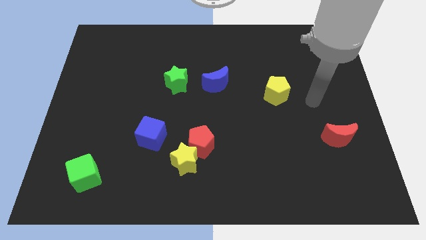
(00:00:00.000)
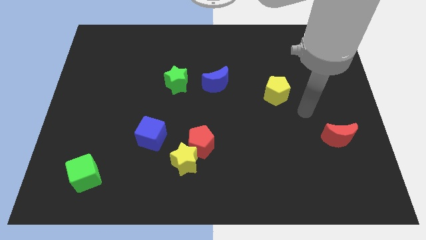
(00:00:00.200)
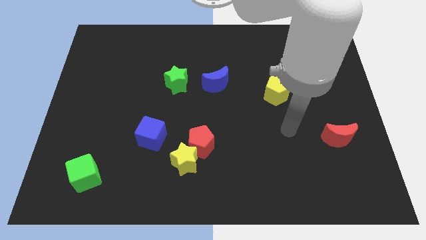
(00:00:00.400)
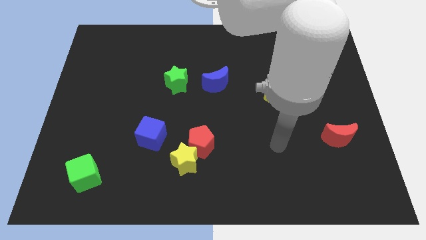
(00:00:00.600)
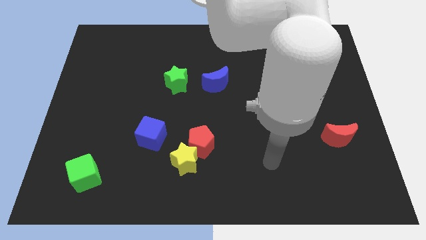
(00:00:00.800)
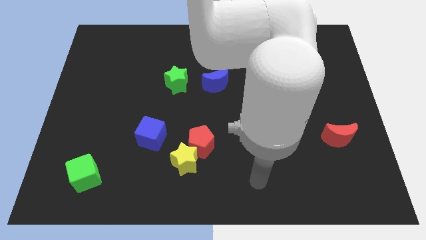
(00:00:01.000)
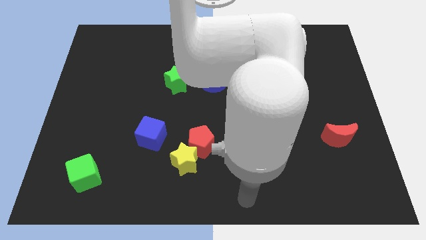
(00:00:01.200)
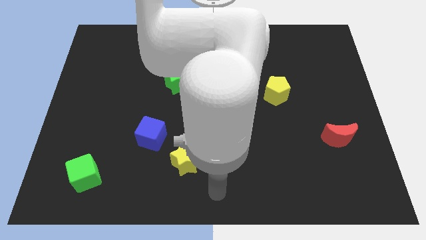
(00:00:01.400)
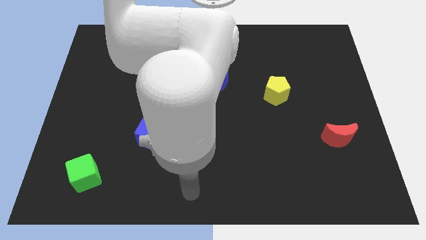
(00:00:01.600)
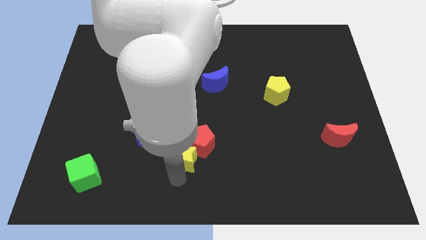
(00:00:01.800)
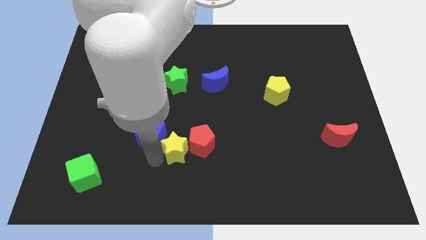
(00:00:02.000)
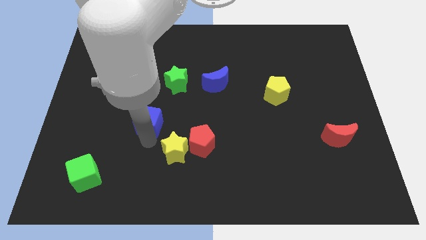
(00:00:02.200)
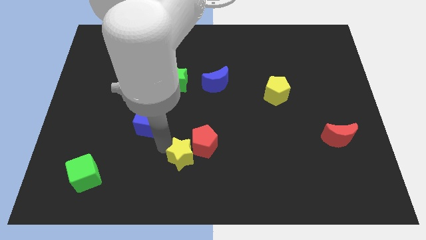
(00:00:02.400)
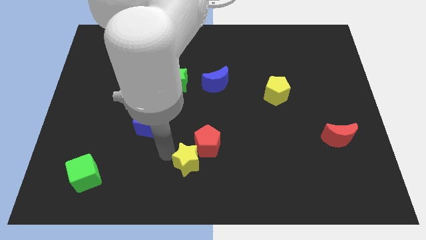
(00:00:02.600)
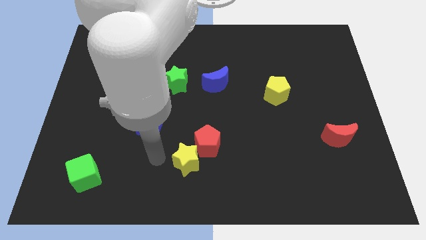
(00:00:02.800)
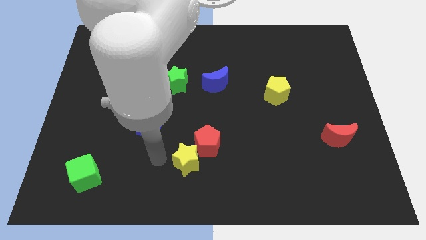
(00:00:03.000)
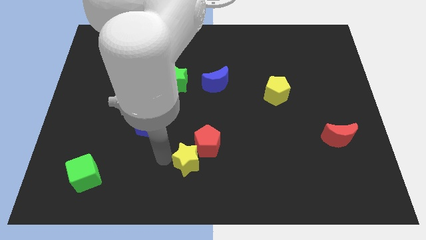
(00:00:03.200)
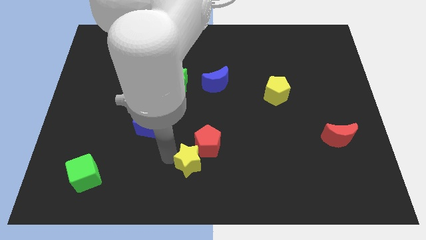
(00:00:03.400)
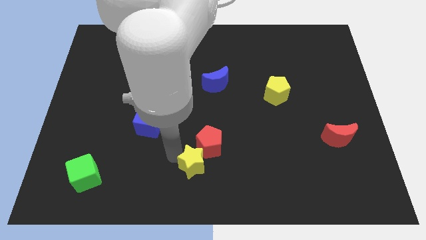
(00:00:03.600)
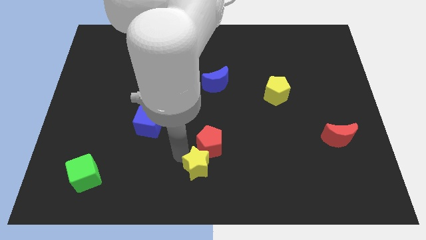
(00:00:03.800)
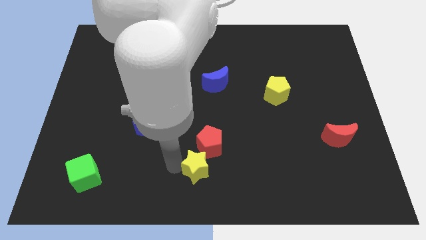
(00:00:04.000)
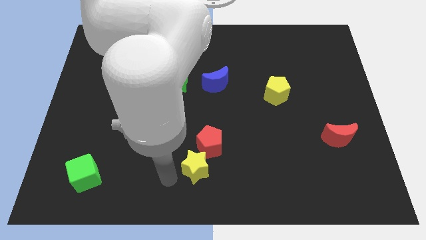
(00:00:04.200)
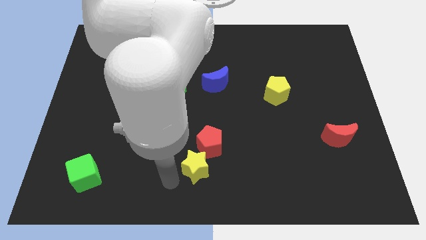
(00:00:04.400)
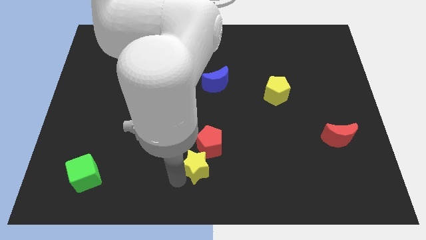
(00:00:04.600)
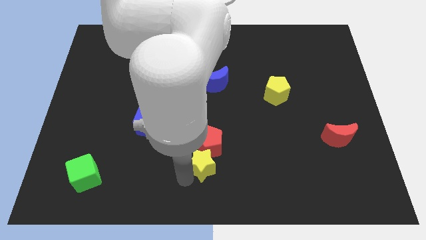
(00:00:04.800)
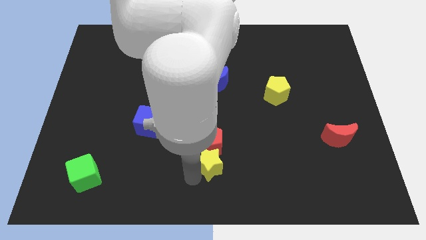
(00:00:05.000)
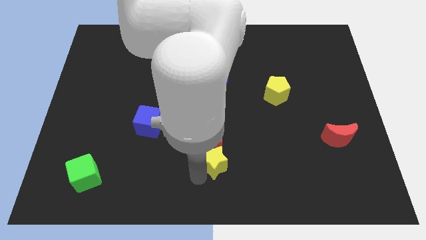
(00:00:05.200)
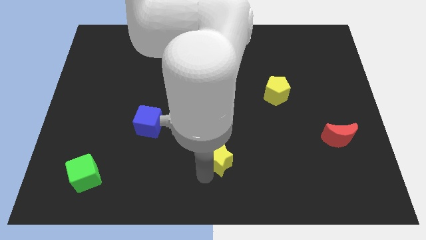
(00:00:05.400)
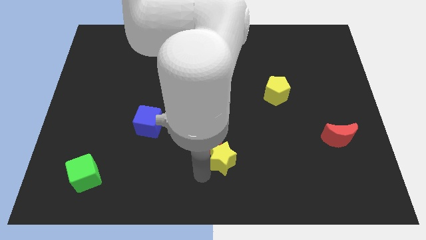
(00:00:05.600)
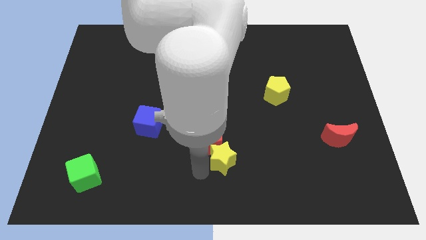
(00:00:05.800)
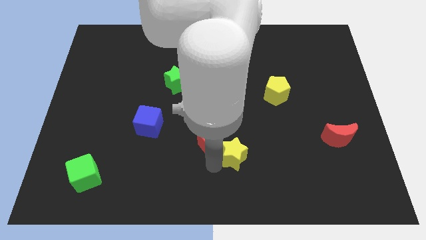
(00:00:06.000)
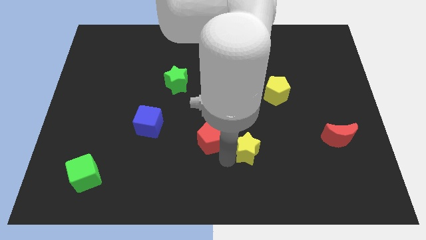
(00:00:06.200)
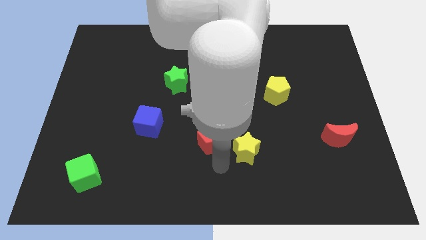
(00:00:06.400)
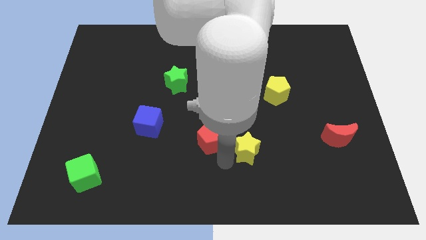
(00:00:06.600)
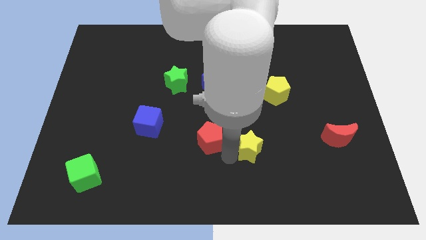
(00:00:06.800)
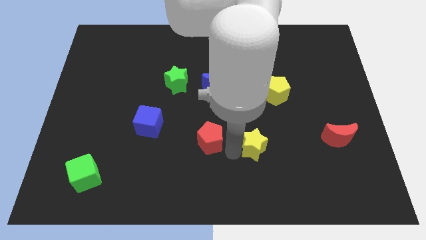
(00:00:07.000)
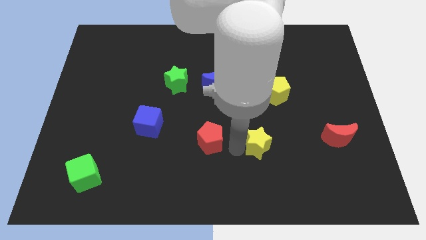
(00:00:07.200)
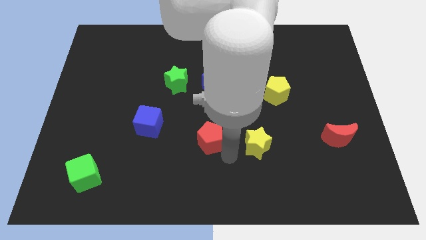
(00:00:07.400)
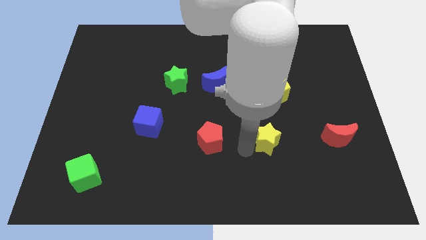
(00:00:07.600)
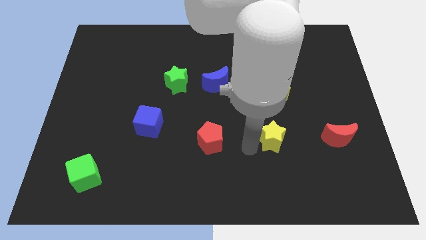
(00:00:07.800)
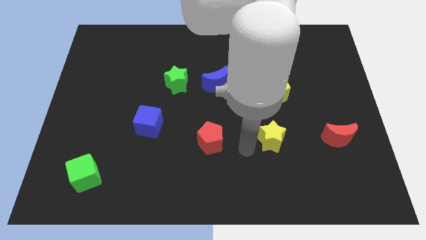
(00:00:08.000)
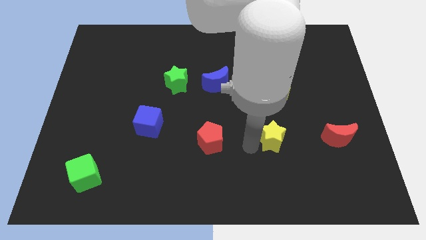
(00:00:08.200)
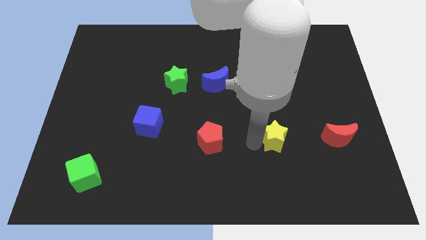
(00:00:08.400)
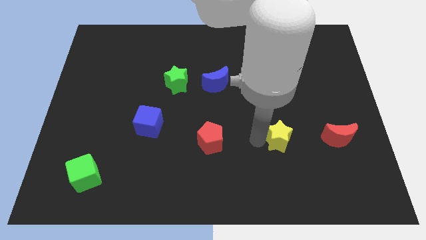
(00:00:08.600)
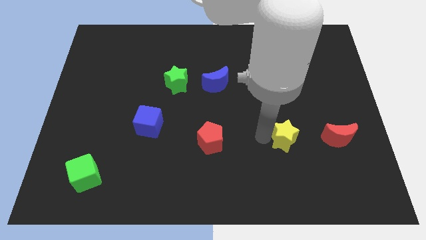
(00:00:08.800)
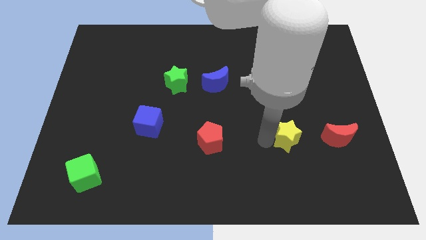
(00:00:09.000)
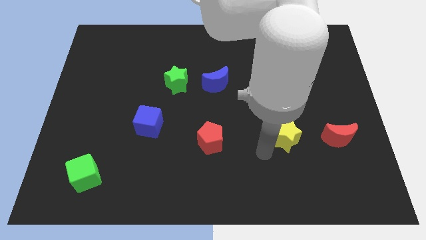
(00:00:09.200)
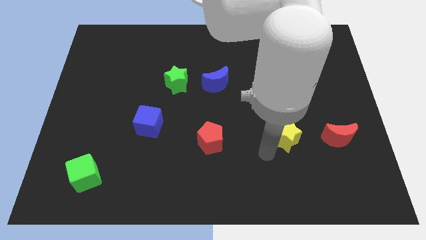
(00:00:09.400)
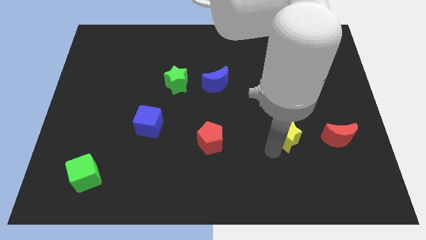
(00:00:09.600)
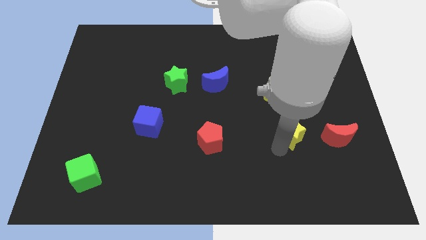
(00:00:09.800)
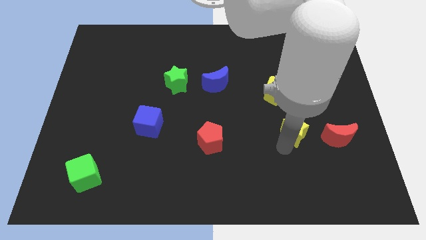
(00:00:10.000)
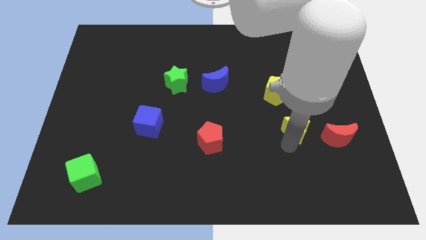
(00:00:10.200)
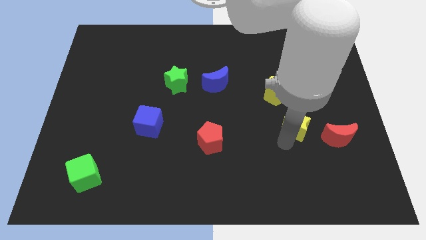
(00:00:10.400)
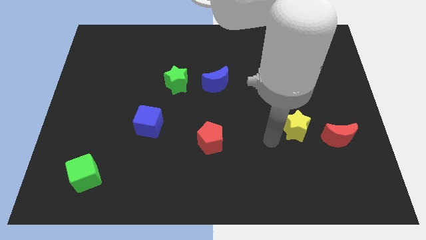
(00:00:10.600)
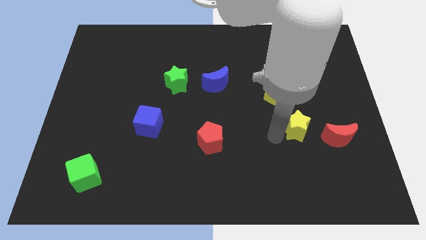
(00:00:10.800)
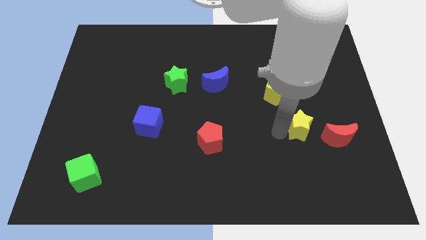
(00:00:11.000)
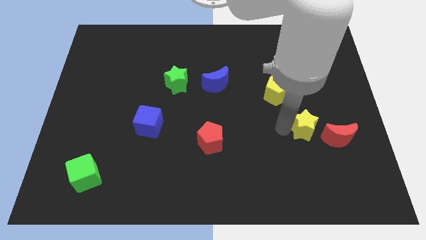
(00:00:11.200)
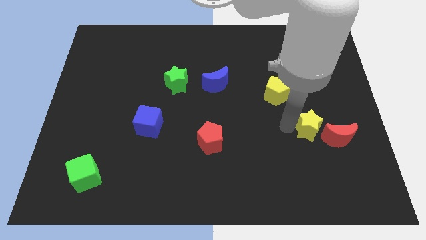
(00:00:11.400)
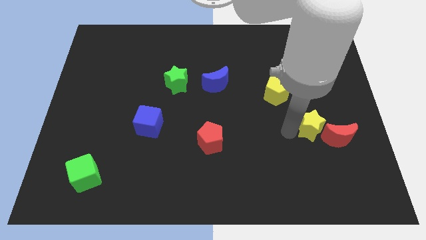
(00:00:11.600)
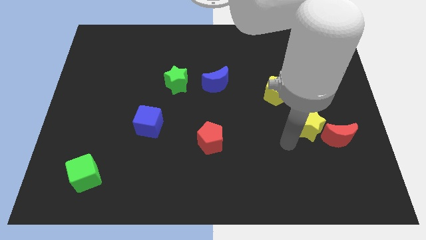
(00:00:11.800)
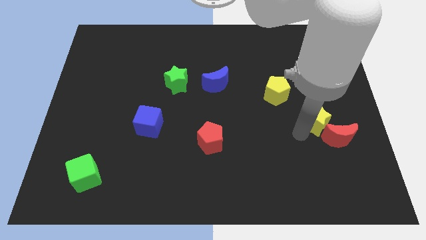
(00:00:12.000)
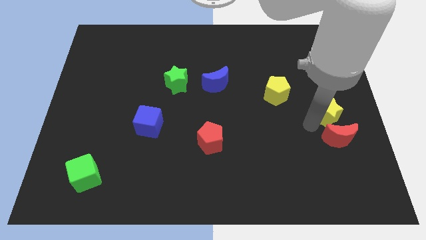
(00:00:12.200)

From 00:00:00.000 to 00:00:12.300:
move the yellow star to the center right

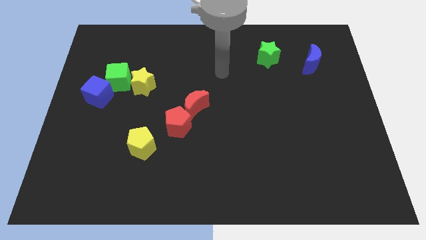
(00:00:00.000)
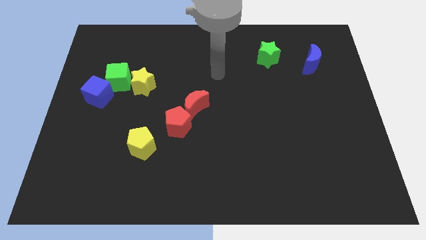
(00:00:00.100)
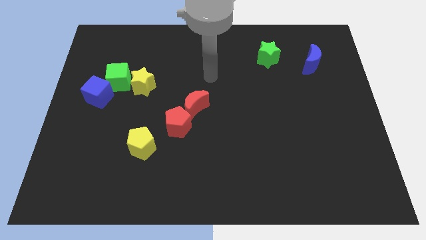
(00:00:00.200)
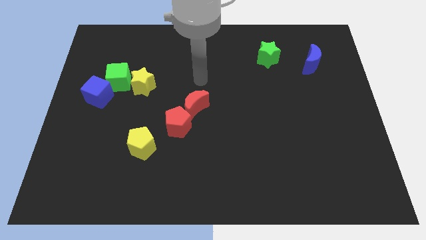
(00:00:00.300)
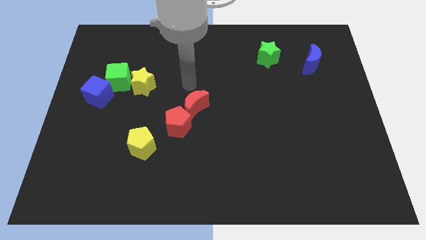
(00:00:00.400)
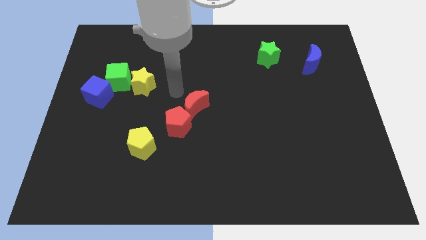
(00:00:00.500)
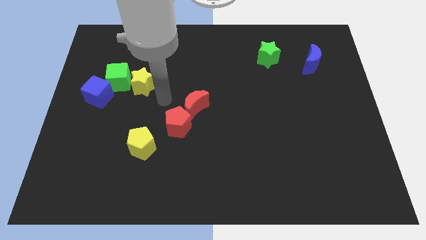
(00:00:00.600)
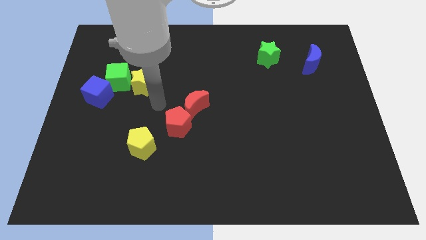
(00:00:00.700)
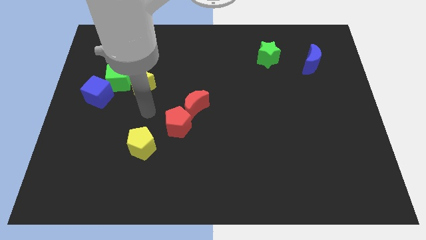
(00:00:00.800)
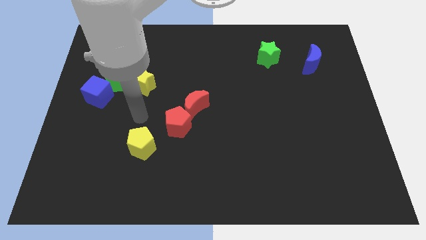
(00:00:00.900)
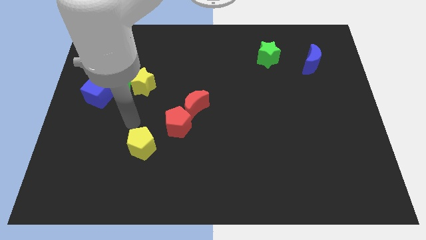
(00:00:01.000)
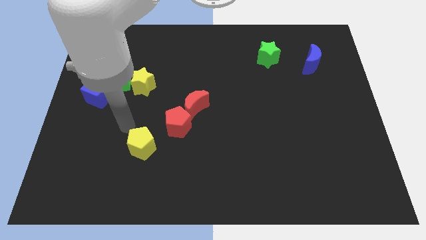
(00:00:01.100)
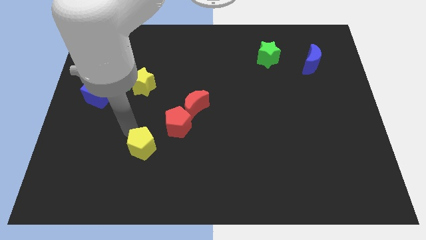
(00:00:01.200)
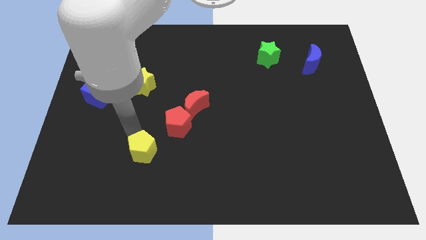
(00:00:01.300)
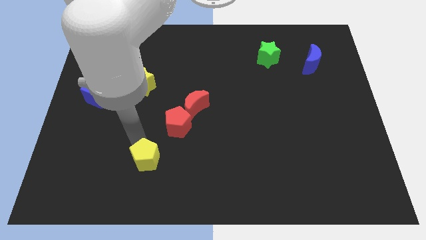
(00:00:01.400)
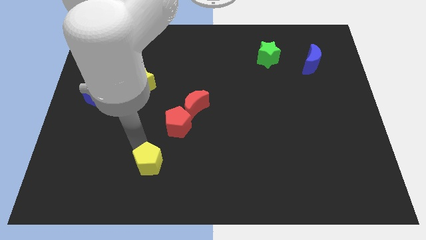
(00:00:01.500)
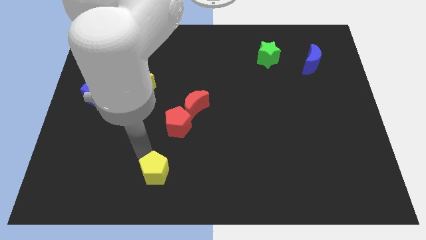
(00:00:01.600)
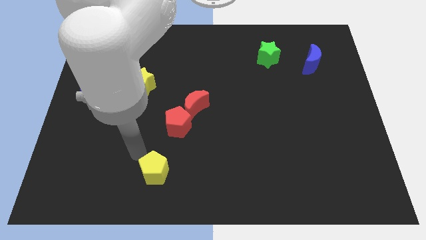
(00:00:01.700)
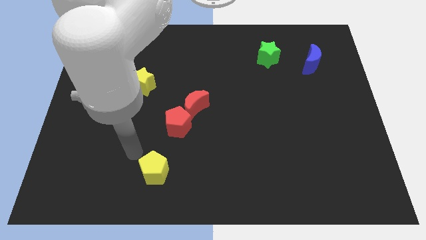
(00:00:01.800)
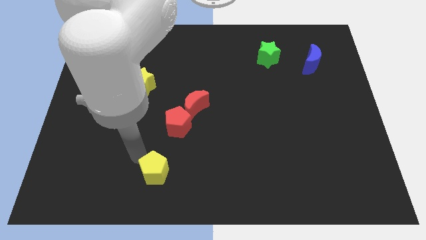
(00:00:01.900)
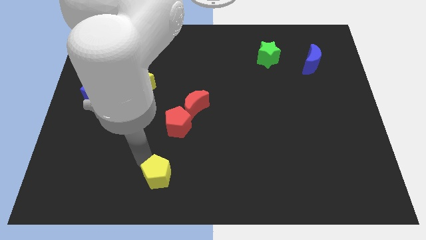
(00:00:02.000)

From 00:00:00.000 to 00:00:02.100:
slide the yellow pentagon to the bottom side
